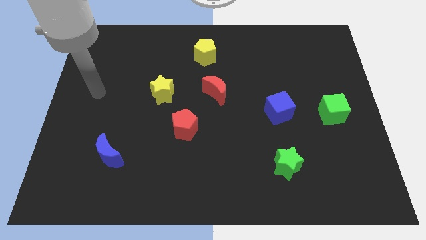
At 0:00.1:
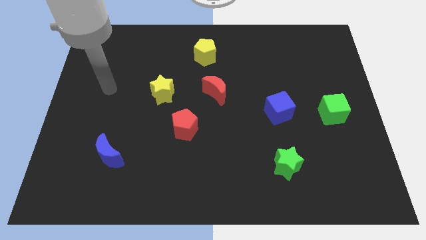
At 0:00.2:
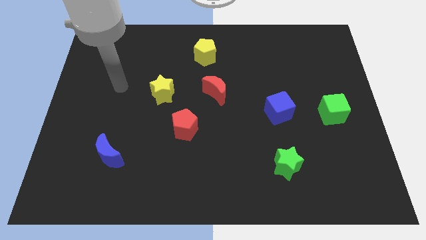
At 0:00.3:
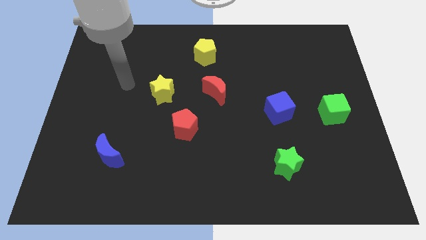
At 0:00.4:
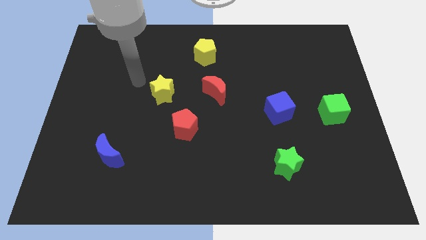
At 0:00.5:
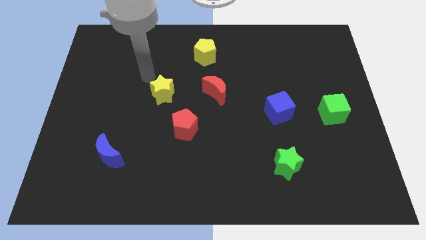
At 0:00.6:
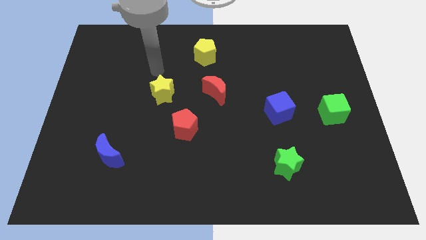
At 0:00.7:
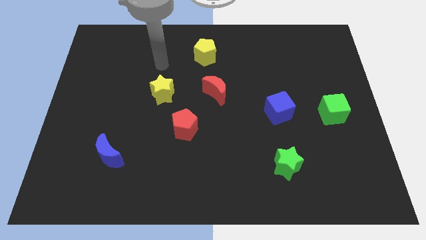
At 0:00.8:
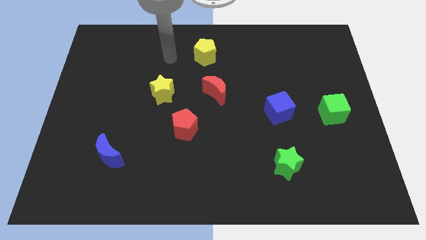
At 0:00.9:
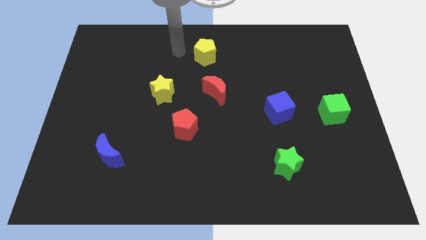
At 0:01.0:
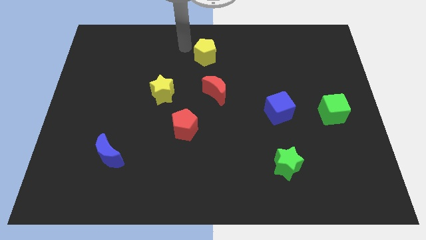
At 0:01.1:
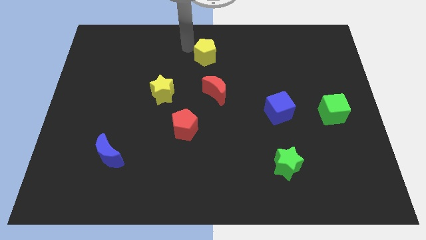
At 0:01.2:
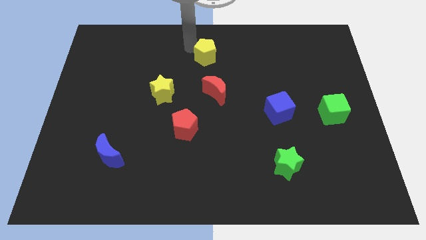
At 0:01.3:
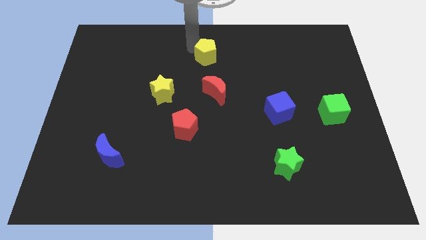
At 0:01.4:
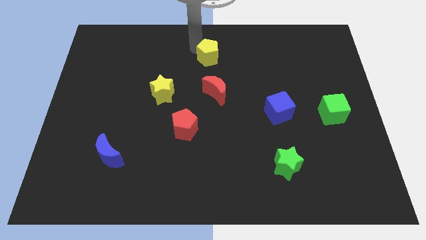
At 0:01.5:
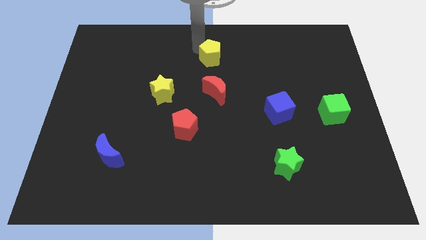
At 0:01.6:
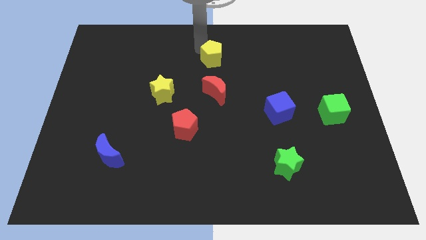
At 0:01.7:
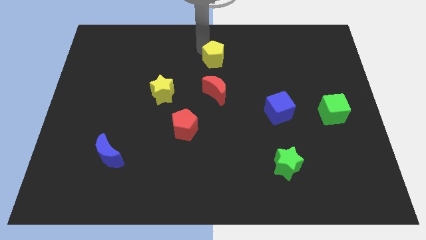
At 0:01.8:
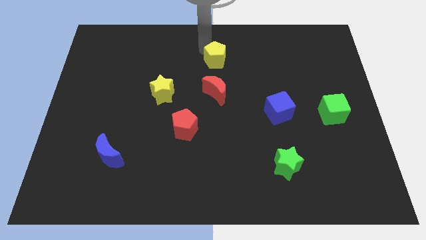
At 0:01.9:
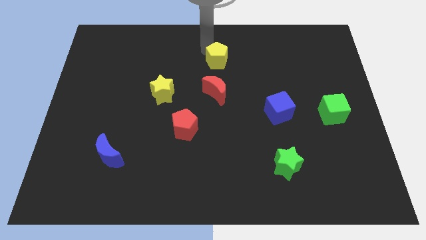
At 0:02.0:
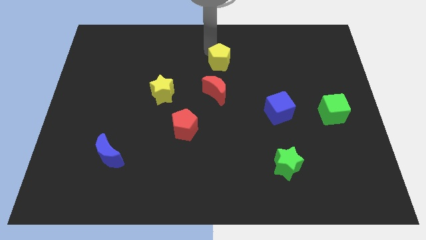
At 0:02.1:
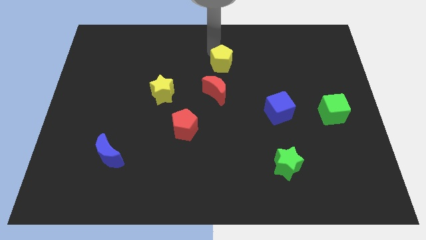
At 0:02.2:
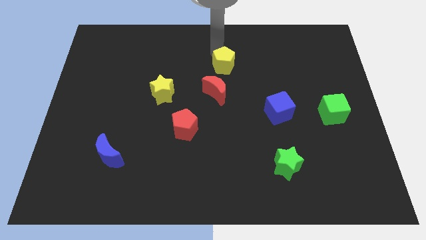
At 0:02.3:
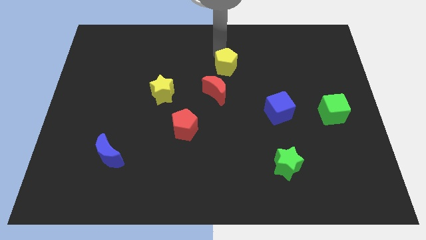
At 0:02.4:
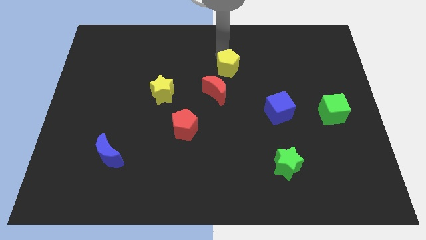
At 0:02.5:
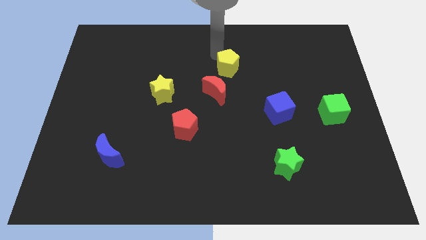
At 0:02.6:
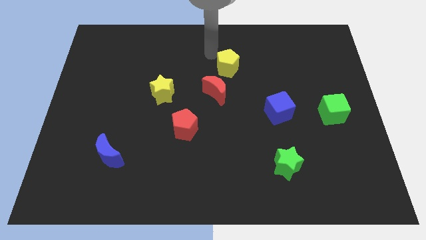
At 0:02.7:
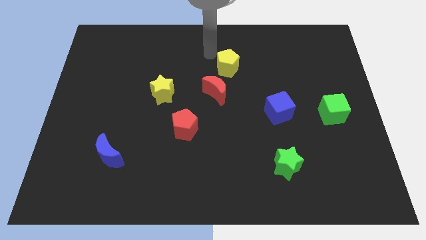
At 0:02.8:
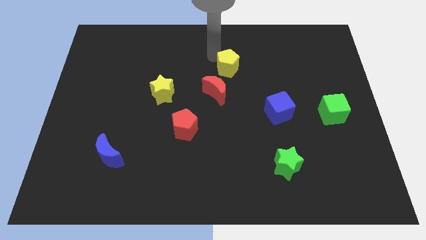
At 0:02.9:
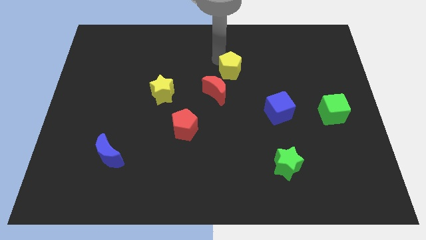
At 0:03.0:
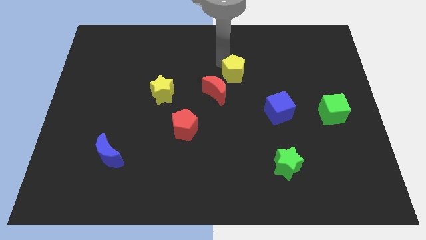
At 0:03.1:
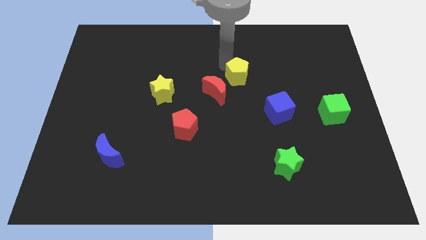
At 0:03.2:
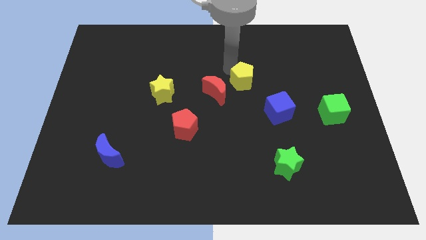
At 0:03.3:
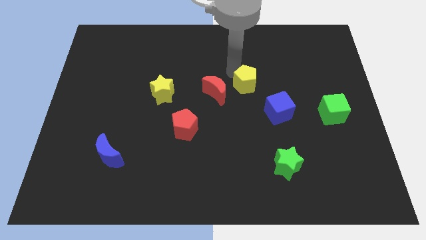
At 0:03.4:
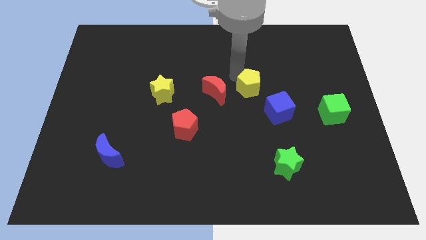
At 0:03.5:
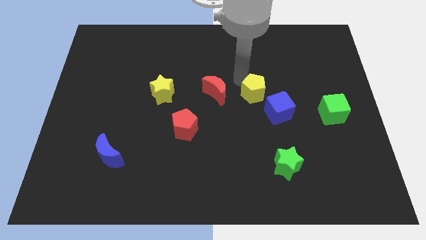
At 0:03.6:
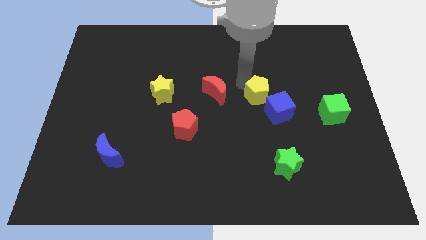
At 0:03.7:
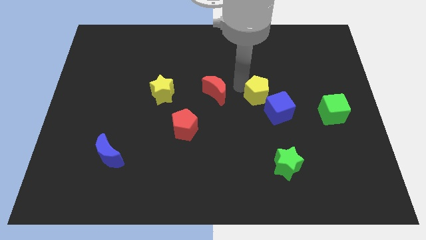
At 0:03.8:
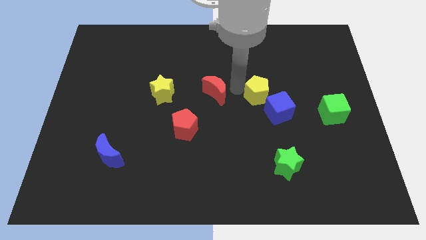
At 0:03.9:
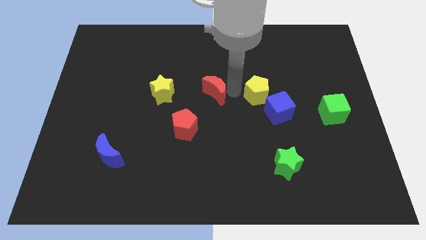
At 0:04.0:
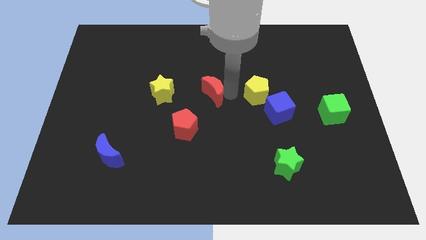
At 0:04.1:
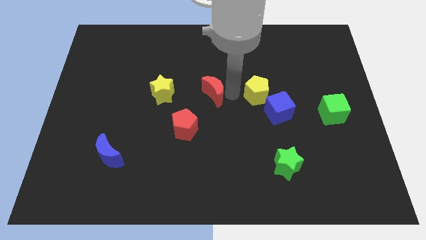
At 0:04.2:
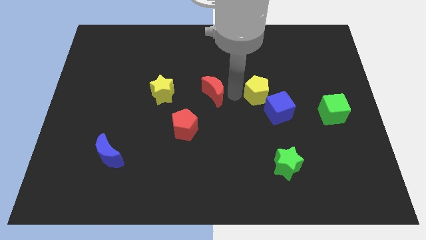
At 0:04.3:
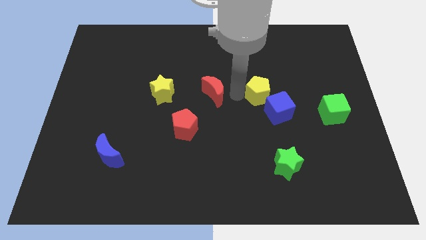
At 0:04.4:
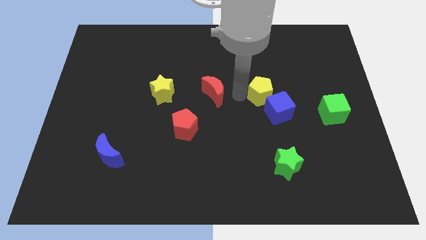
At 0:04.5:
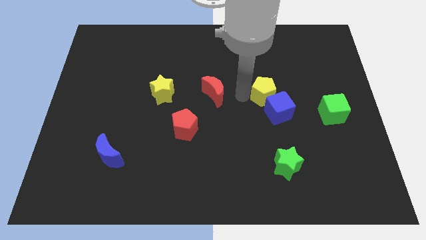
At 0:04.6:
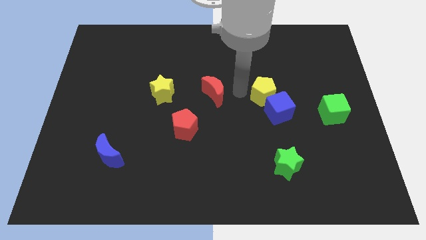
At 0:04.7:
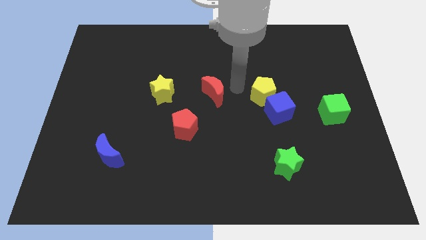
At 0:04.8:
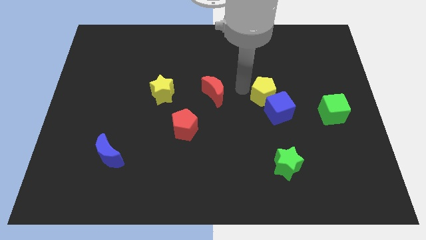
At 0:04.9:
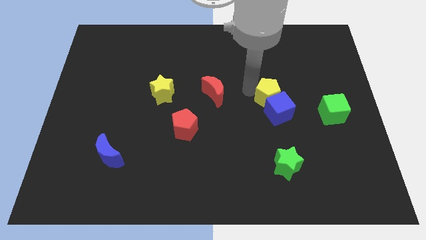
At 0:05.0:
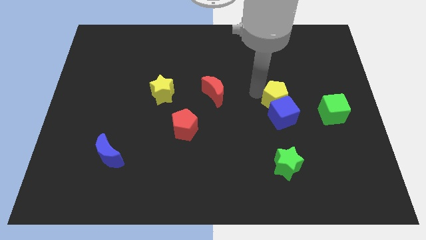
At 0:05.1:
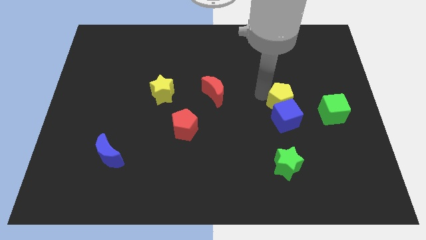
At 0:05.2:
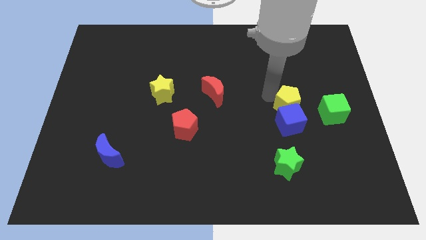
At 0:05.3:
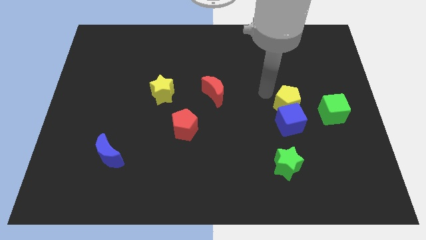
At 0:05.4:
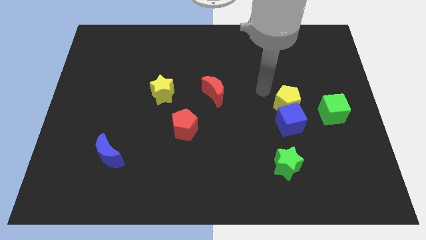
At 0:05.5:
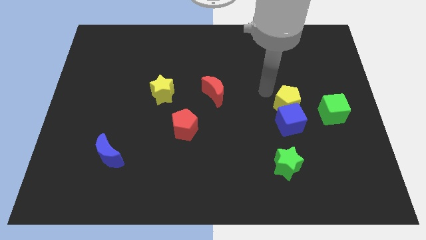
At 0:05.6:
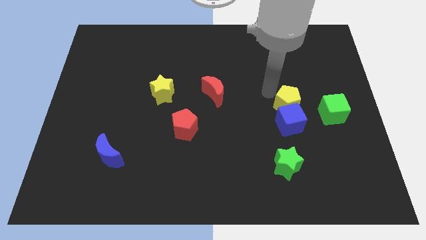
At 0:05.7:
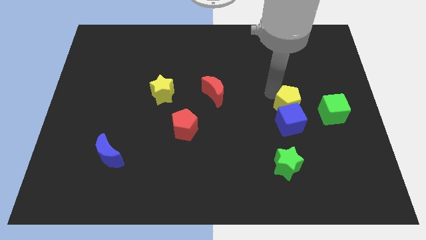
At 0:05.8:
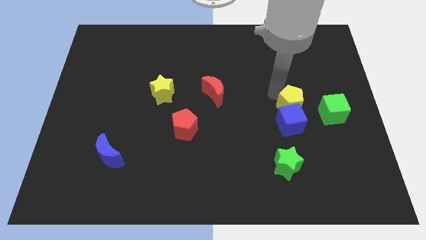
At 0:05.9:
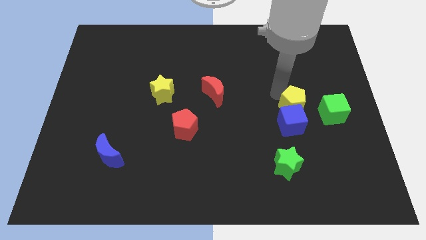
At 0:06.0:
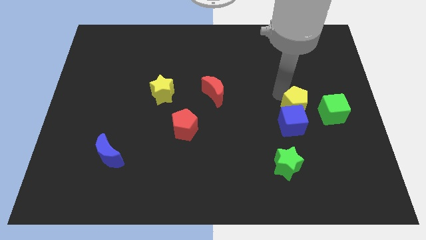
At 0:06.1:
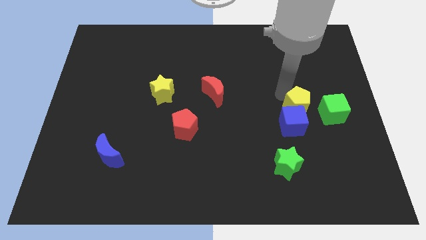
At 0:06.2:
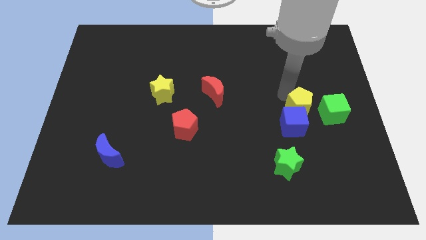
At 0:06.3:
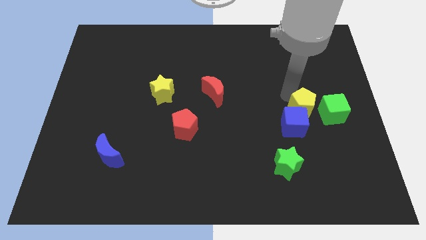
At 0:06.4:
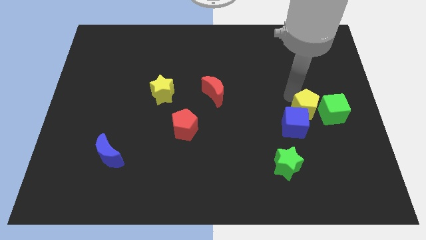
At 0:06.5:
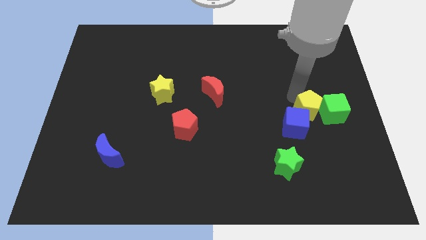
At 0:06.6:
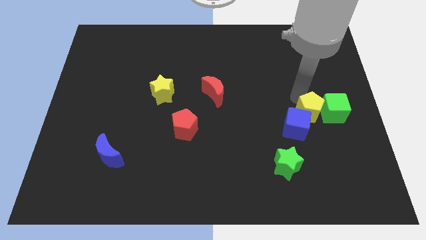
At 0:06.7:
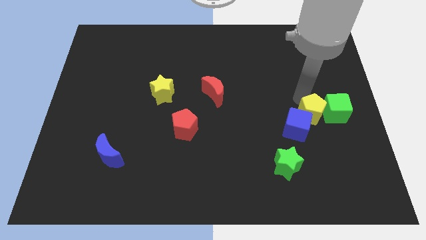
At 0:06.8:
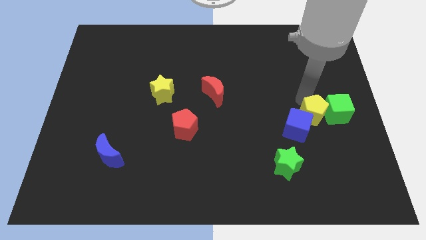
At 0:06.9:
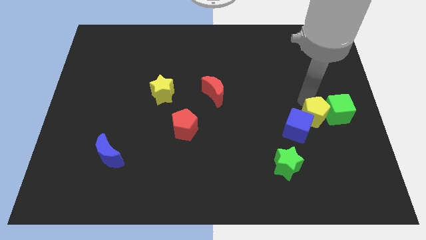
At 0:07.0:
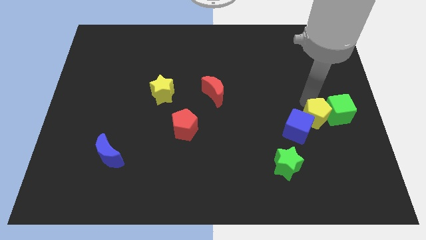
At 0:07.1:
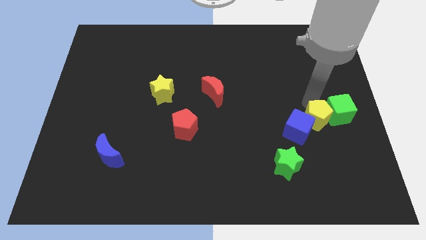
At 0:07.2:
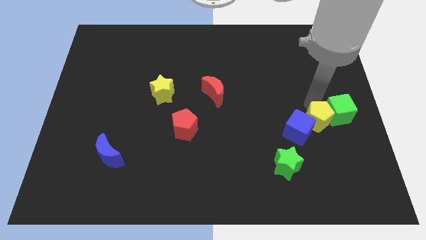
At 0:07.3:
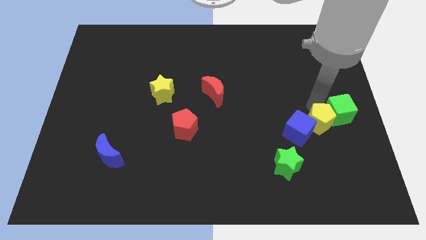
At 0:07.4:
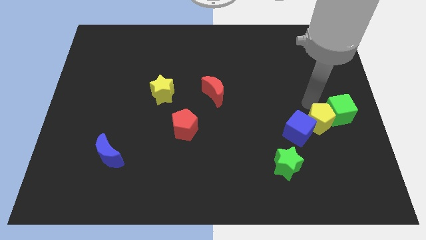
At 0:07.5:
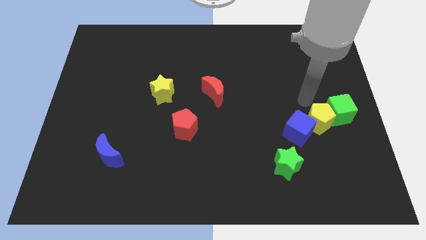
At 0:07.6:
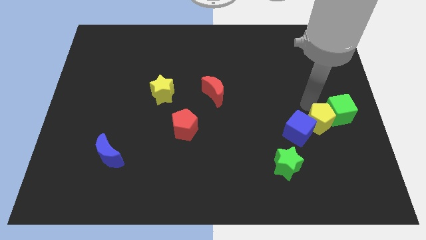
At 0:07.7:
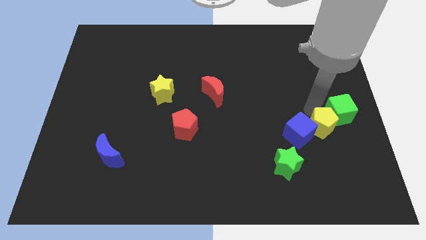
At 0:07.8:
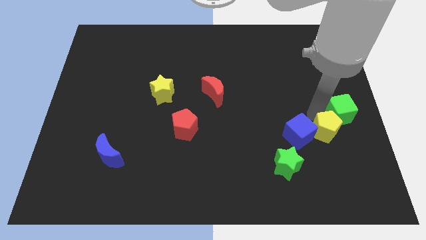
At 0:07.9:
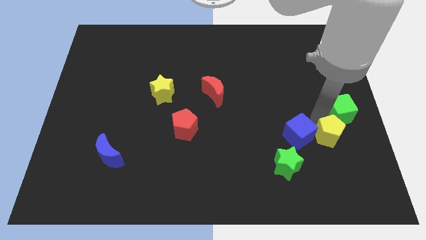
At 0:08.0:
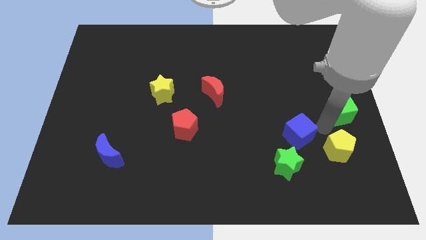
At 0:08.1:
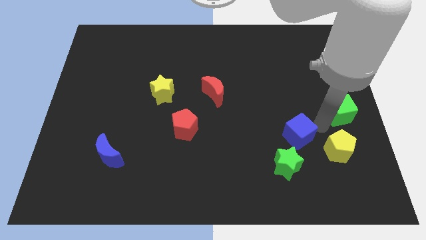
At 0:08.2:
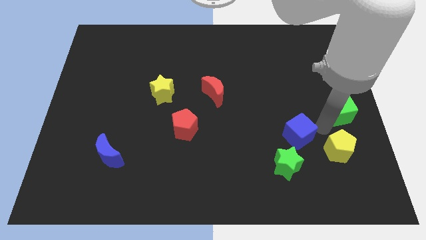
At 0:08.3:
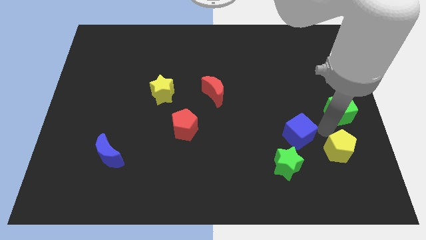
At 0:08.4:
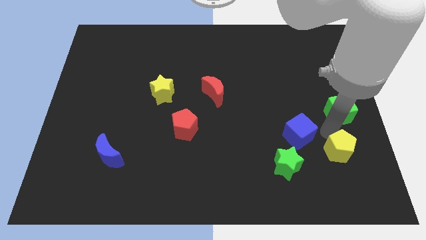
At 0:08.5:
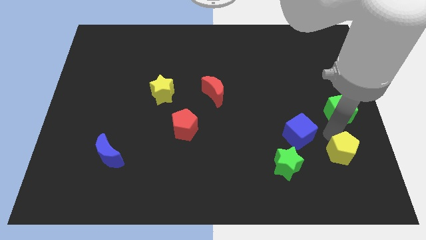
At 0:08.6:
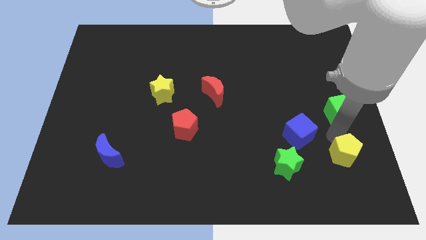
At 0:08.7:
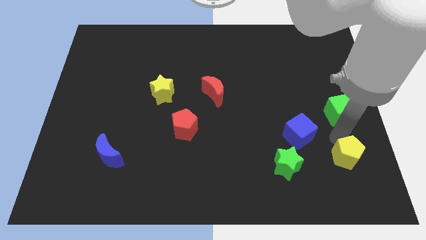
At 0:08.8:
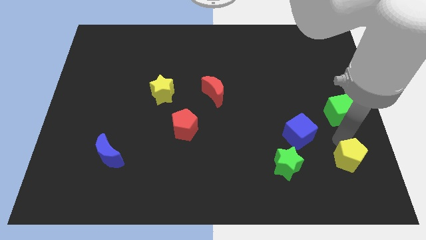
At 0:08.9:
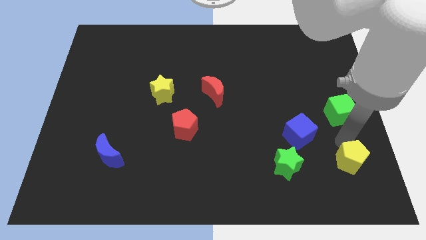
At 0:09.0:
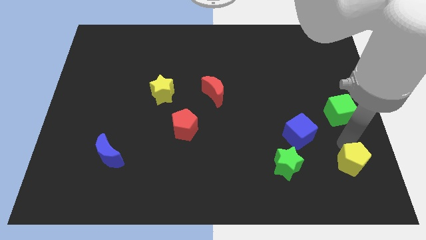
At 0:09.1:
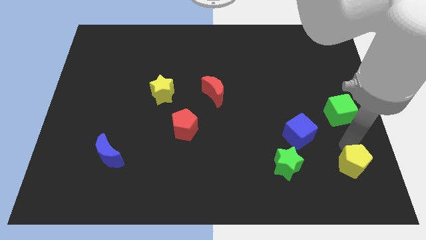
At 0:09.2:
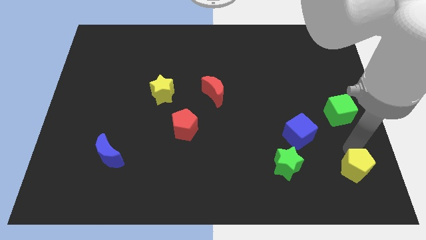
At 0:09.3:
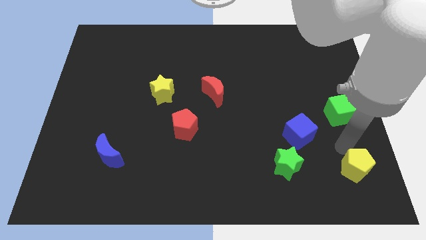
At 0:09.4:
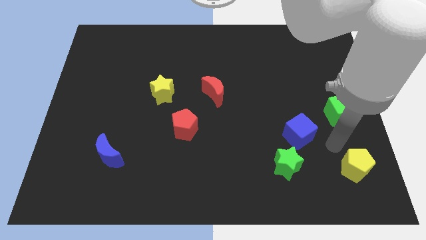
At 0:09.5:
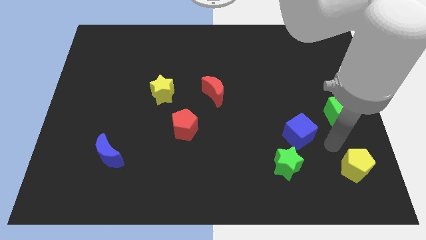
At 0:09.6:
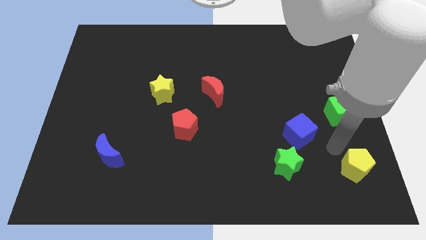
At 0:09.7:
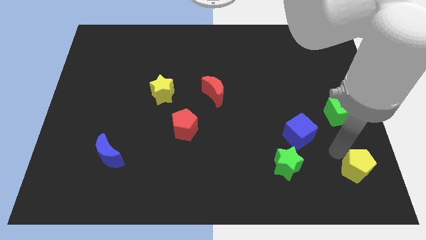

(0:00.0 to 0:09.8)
put the yellow pentagon to the bottom right of the board
